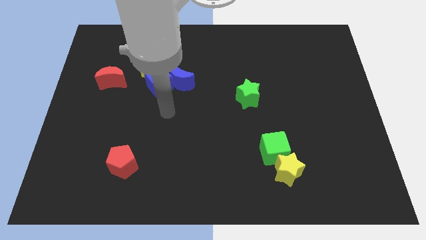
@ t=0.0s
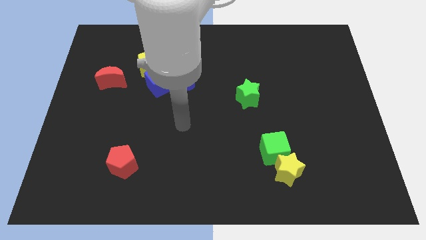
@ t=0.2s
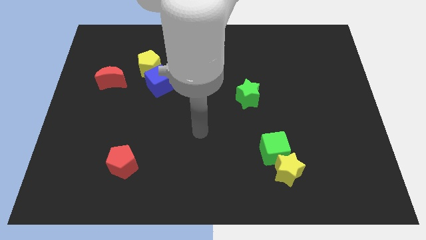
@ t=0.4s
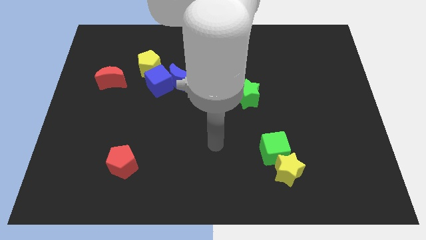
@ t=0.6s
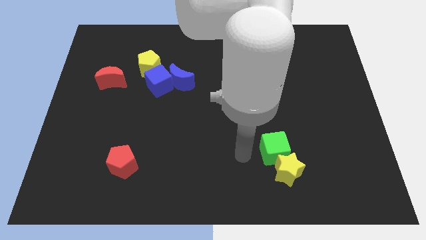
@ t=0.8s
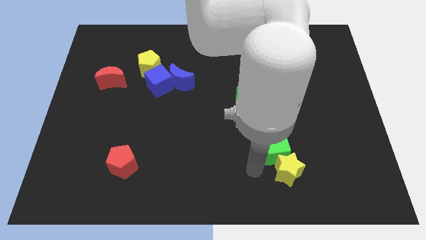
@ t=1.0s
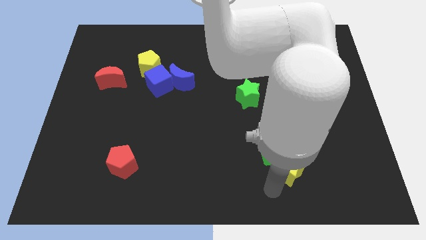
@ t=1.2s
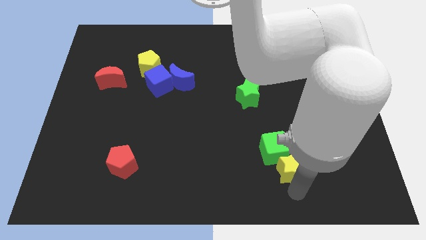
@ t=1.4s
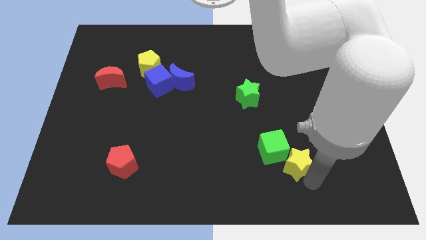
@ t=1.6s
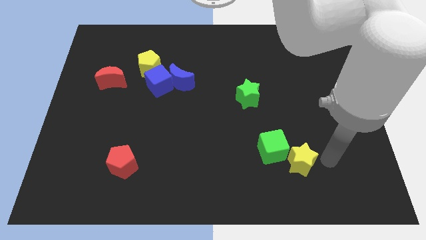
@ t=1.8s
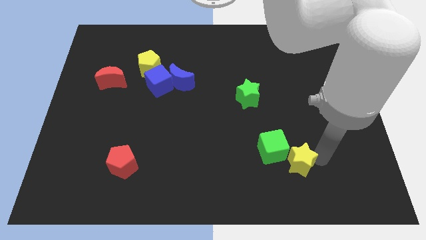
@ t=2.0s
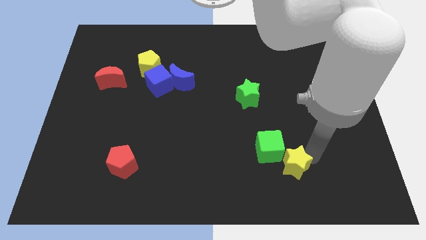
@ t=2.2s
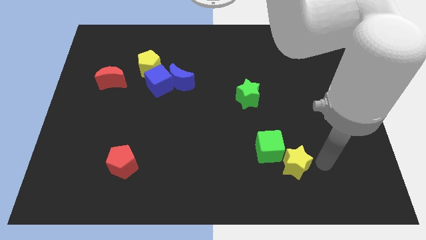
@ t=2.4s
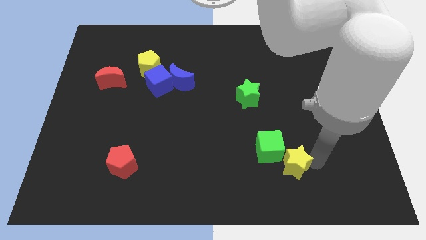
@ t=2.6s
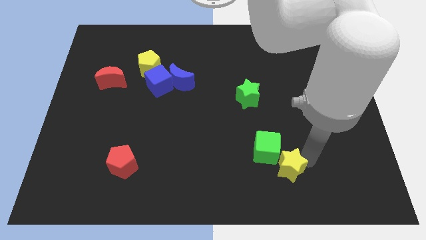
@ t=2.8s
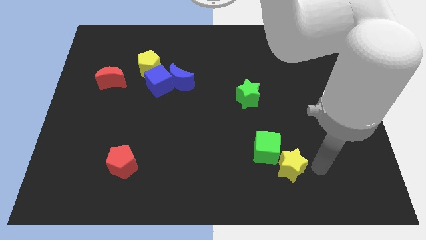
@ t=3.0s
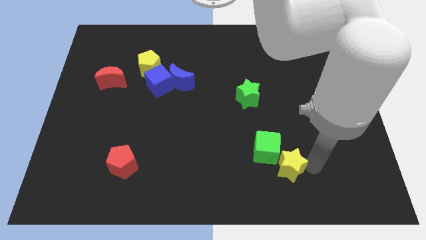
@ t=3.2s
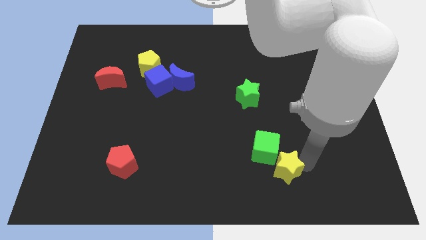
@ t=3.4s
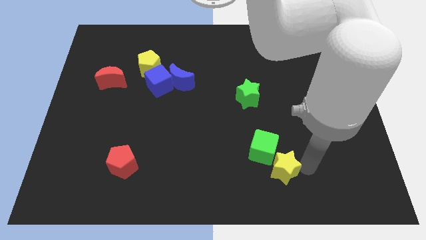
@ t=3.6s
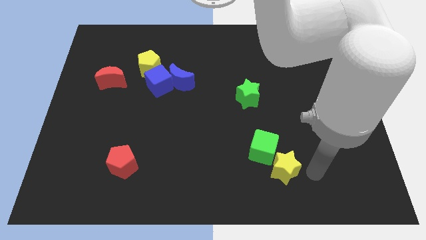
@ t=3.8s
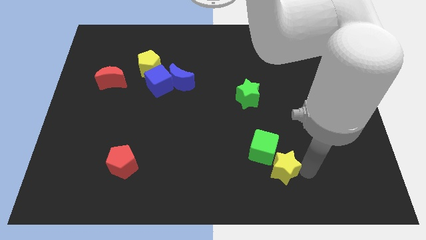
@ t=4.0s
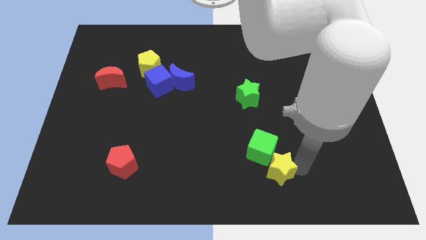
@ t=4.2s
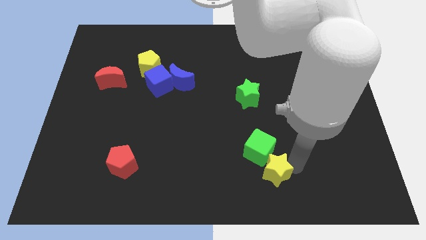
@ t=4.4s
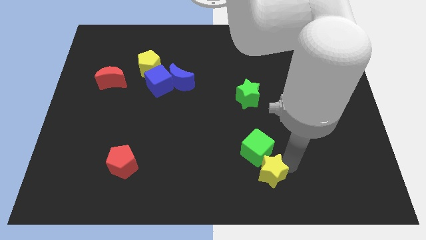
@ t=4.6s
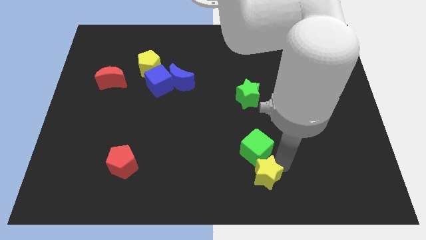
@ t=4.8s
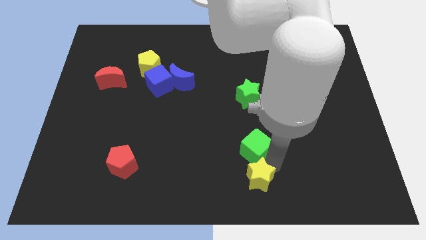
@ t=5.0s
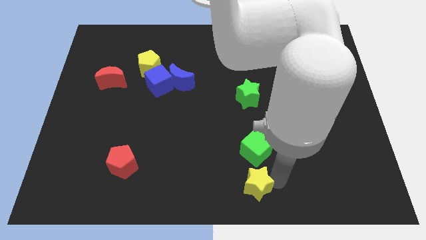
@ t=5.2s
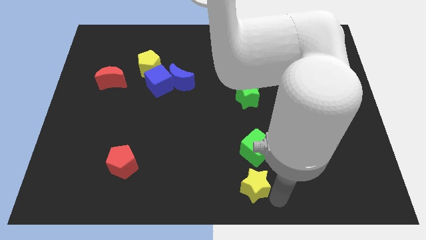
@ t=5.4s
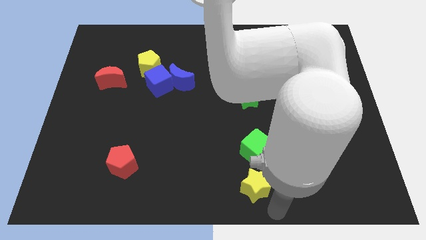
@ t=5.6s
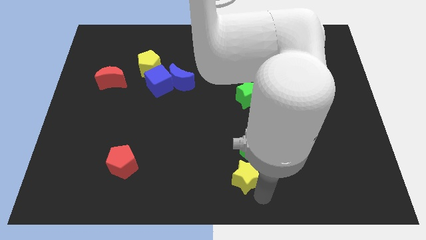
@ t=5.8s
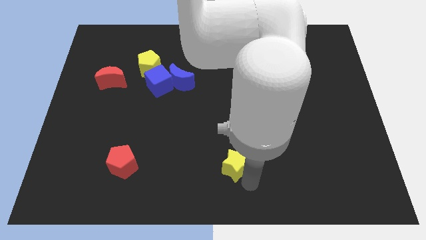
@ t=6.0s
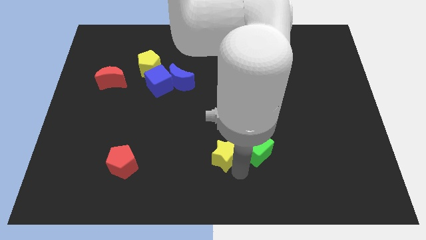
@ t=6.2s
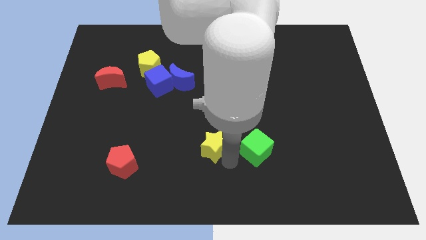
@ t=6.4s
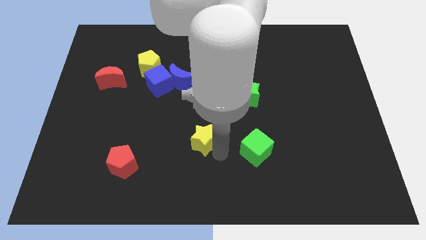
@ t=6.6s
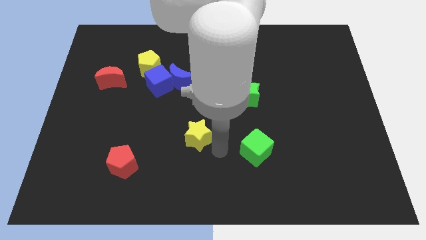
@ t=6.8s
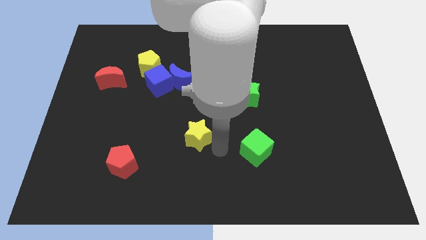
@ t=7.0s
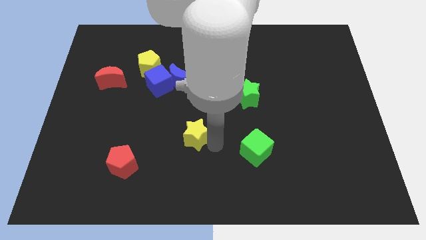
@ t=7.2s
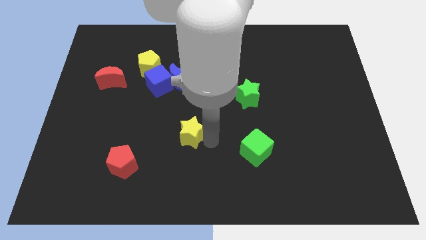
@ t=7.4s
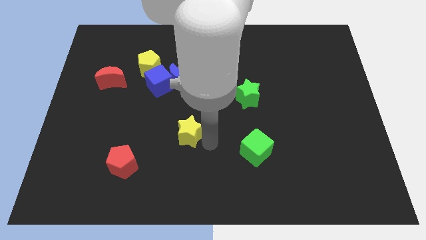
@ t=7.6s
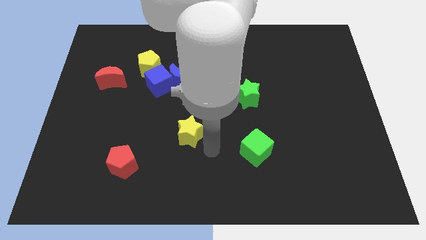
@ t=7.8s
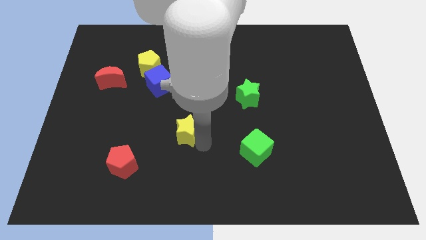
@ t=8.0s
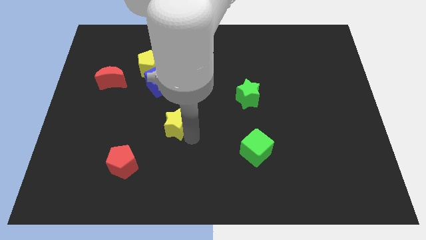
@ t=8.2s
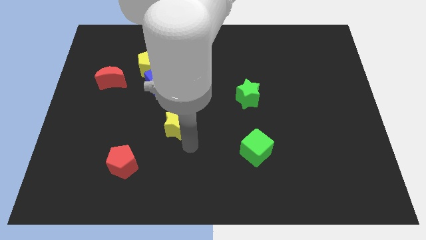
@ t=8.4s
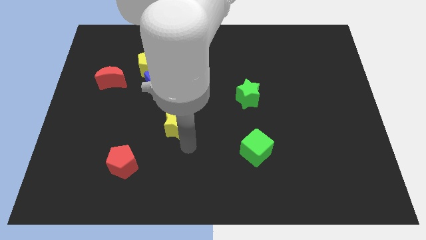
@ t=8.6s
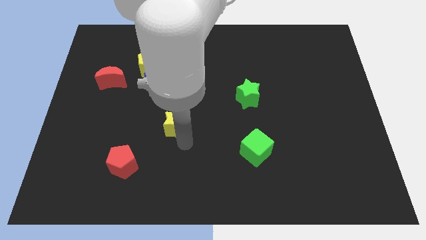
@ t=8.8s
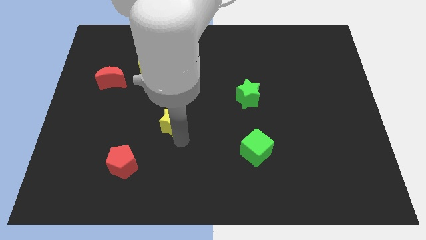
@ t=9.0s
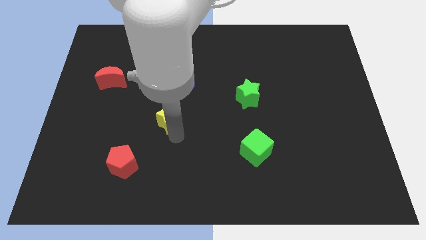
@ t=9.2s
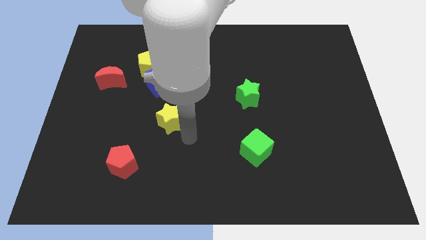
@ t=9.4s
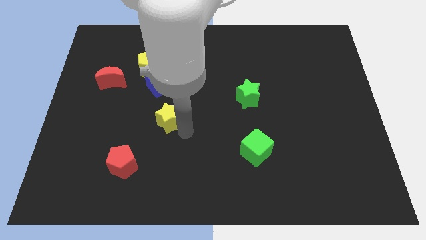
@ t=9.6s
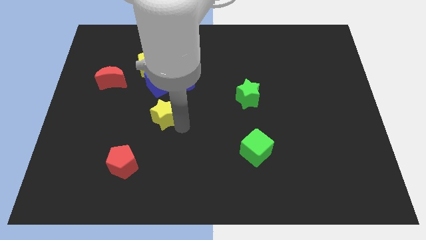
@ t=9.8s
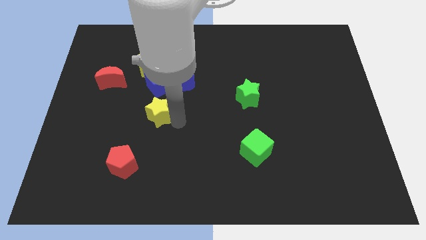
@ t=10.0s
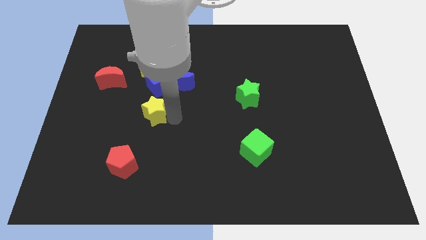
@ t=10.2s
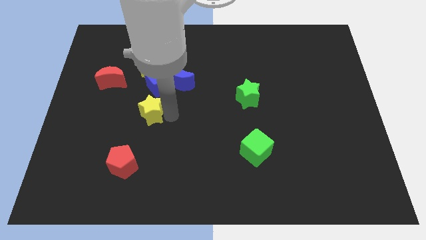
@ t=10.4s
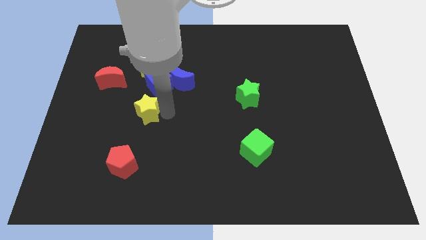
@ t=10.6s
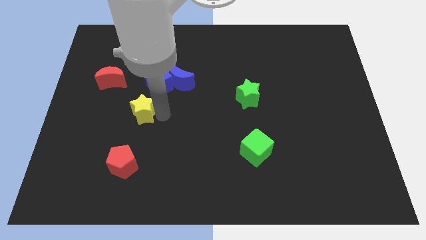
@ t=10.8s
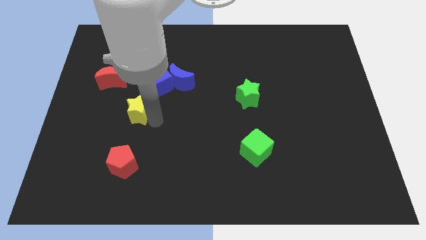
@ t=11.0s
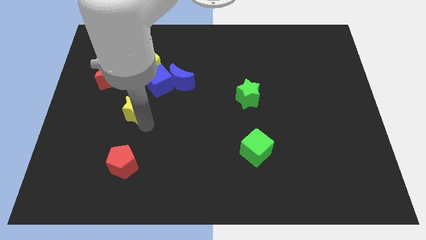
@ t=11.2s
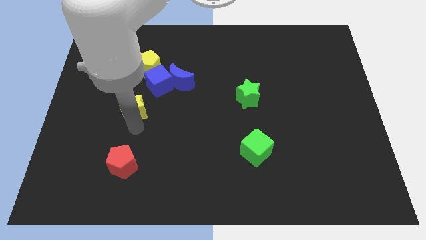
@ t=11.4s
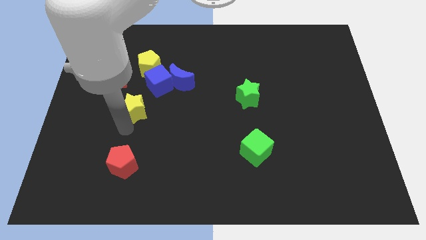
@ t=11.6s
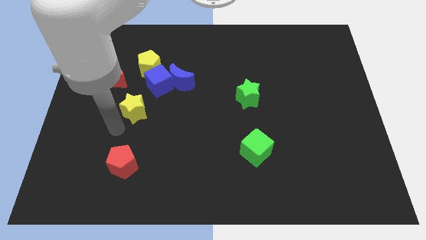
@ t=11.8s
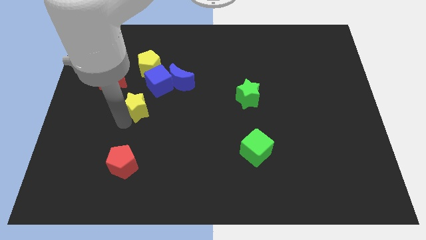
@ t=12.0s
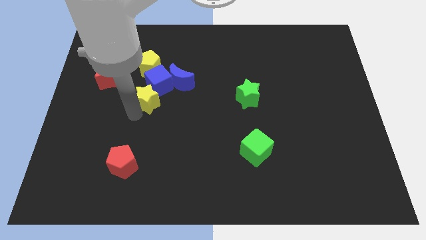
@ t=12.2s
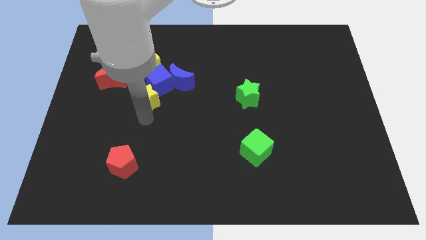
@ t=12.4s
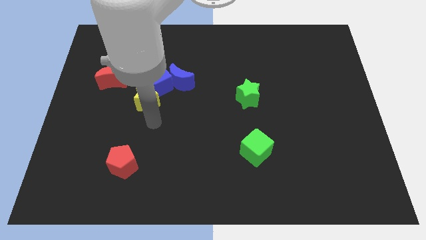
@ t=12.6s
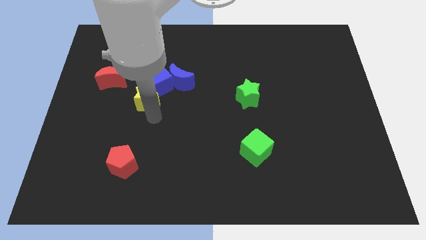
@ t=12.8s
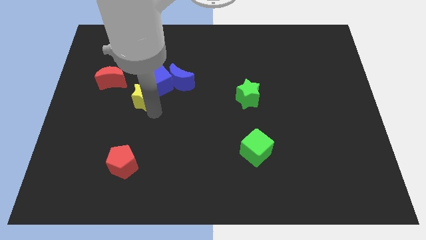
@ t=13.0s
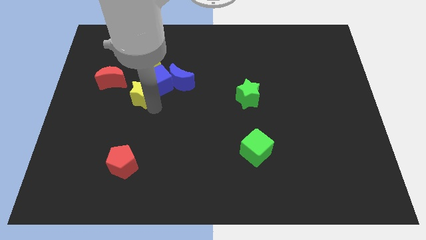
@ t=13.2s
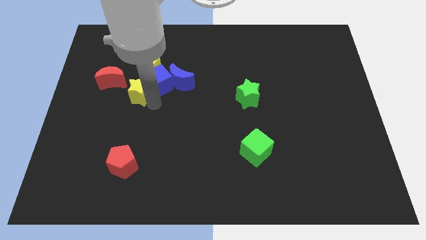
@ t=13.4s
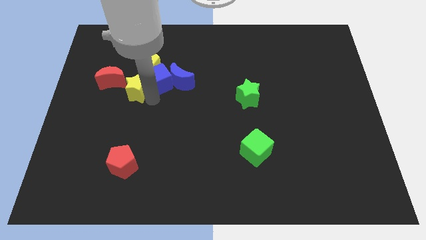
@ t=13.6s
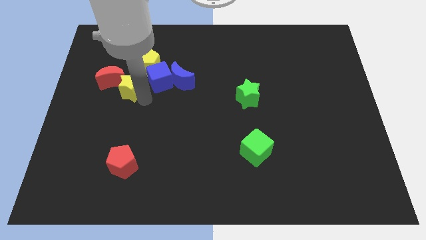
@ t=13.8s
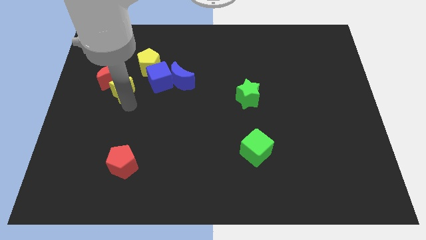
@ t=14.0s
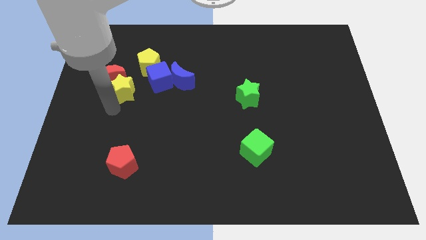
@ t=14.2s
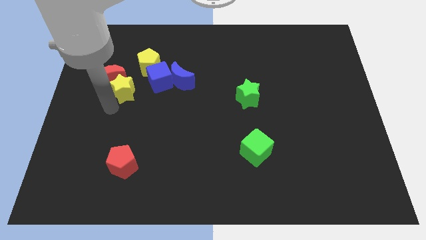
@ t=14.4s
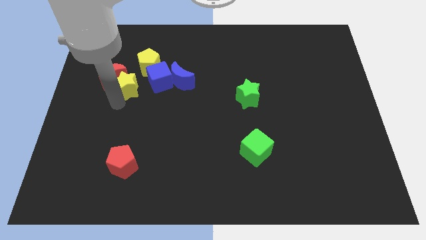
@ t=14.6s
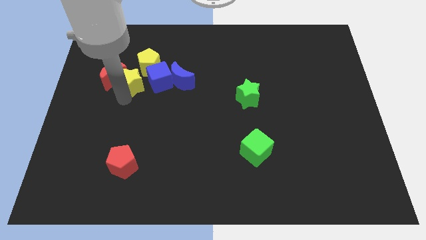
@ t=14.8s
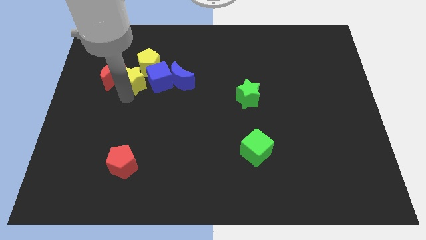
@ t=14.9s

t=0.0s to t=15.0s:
push the yellow star to the yellow pentagon
